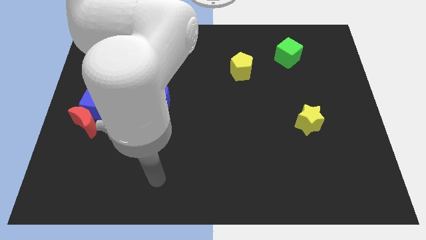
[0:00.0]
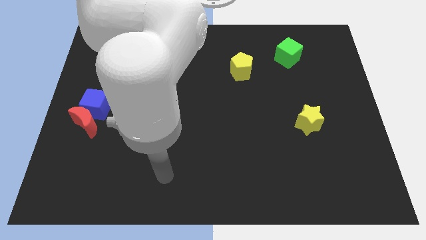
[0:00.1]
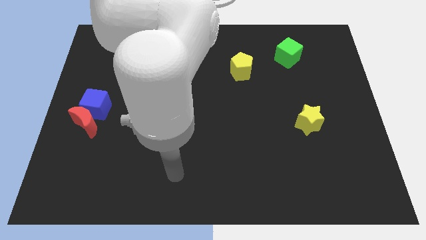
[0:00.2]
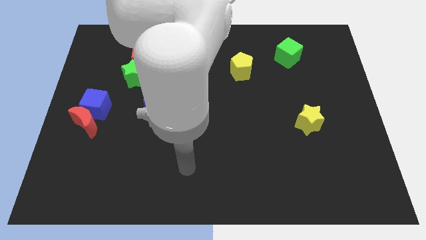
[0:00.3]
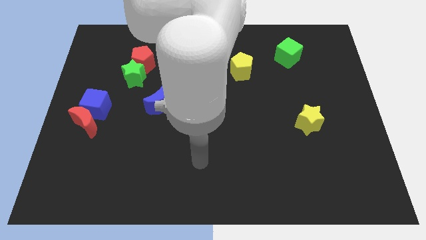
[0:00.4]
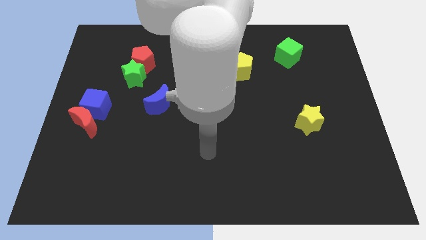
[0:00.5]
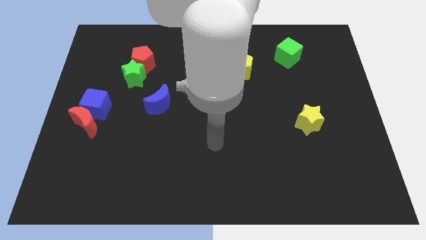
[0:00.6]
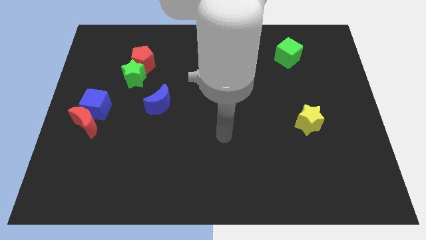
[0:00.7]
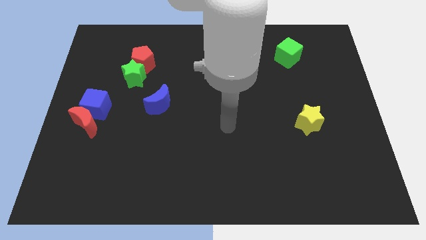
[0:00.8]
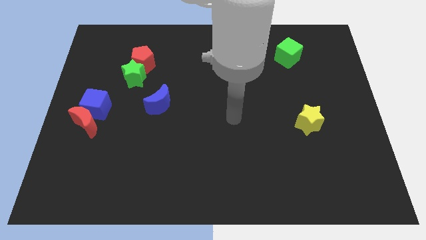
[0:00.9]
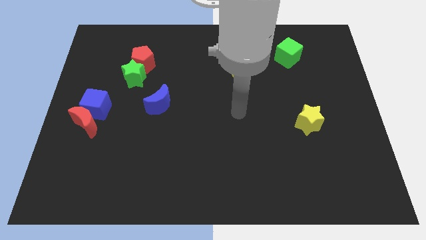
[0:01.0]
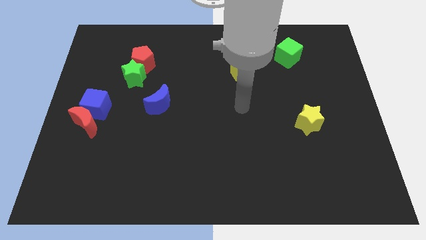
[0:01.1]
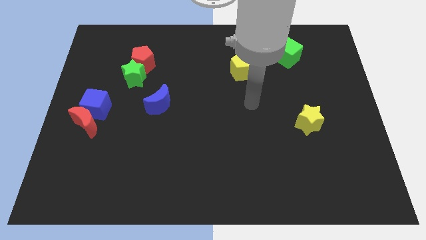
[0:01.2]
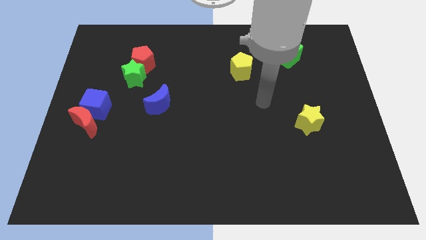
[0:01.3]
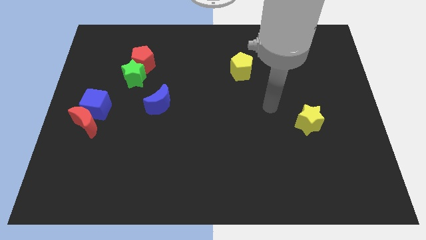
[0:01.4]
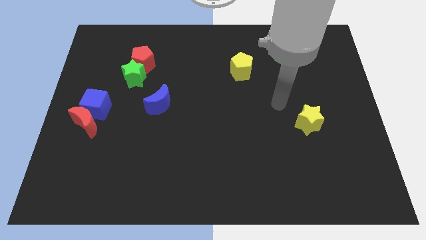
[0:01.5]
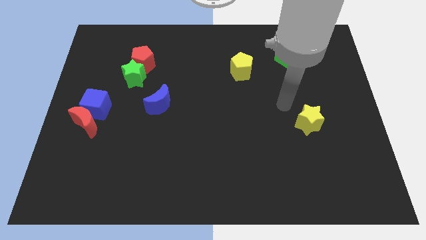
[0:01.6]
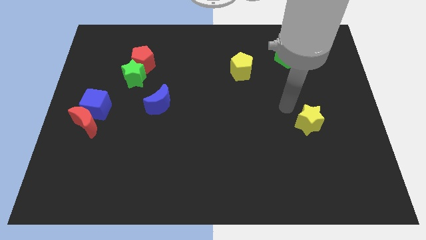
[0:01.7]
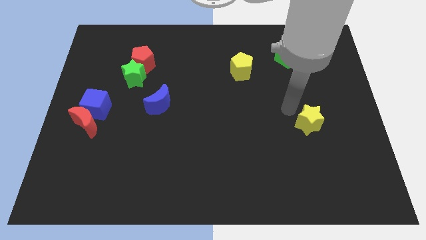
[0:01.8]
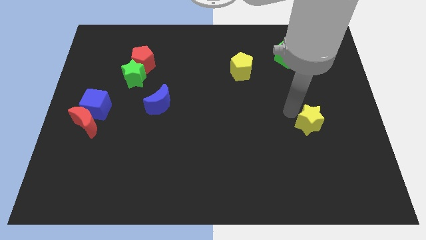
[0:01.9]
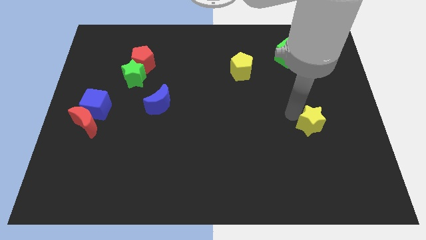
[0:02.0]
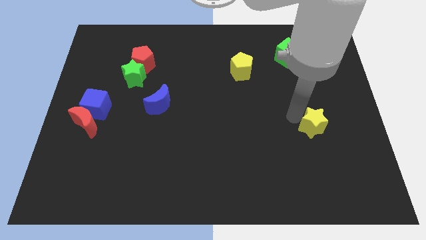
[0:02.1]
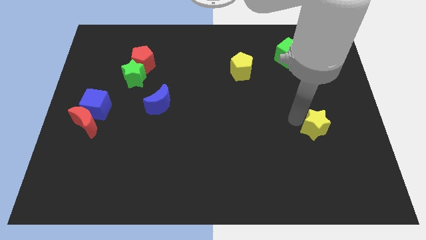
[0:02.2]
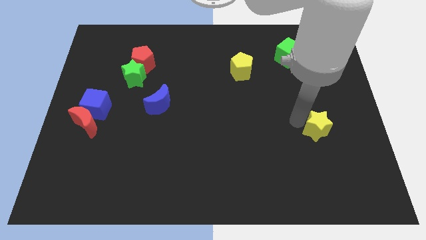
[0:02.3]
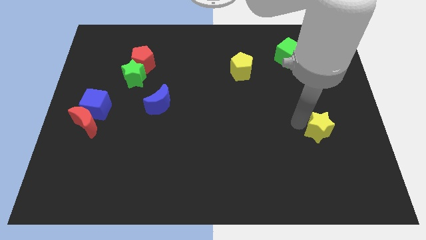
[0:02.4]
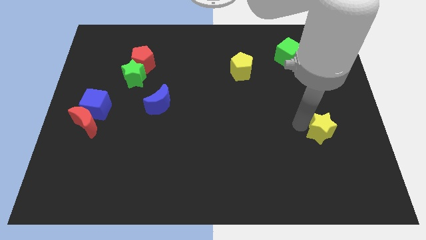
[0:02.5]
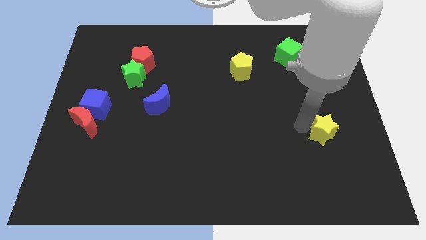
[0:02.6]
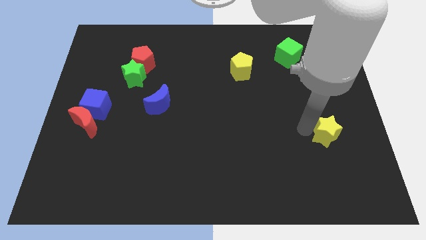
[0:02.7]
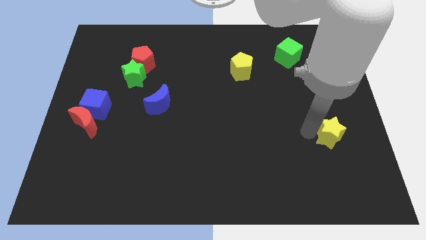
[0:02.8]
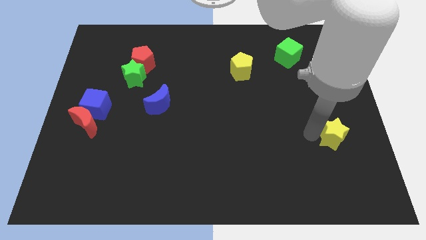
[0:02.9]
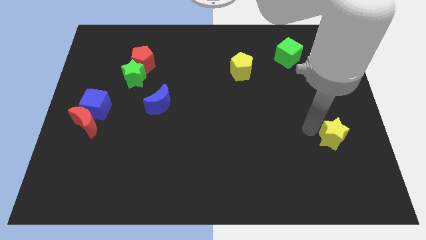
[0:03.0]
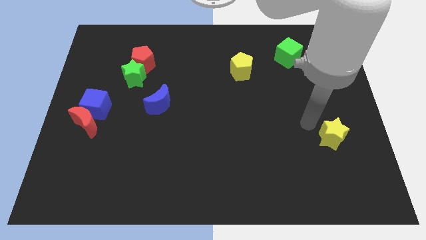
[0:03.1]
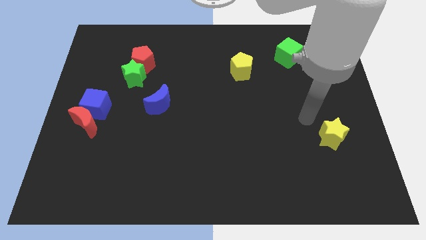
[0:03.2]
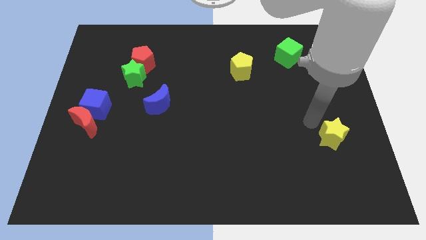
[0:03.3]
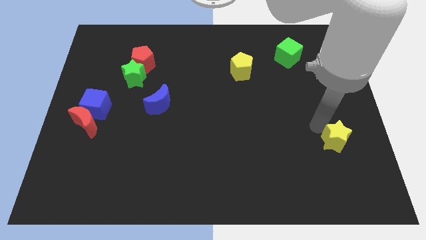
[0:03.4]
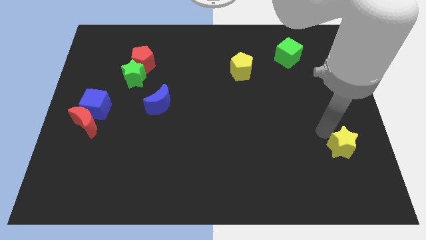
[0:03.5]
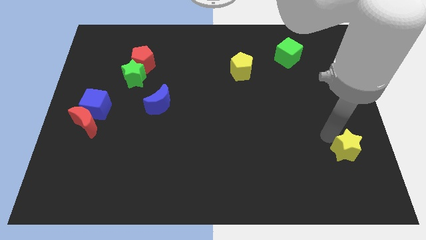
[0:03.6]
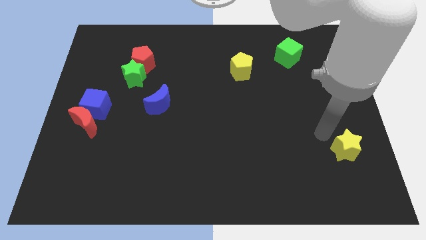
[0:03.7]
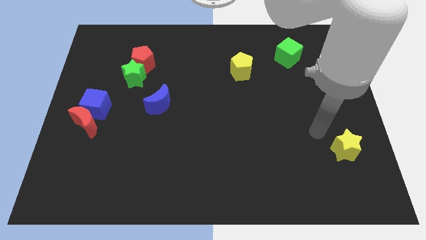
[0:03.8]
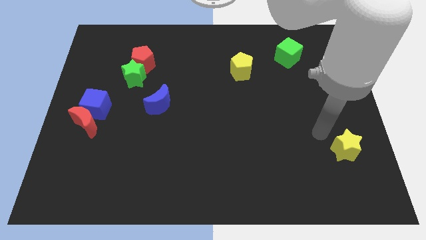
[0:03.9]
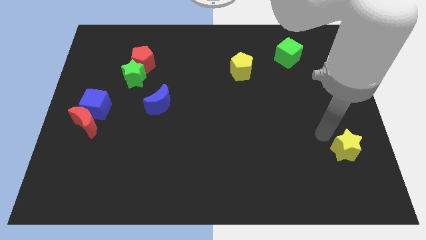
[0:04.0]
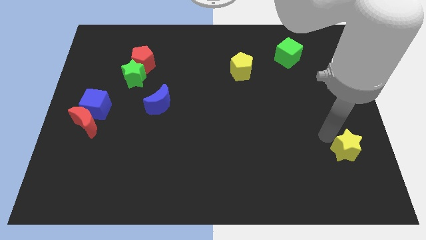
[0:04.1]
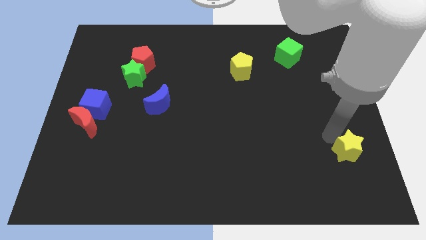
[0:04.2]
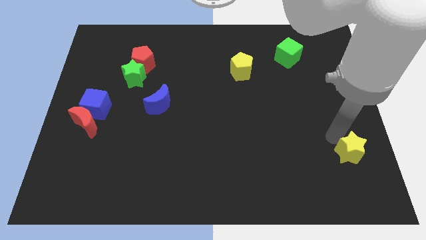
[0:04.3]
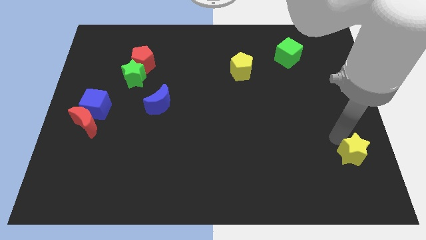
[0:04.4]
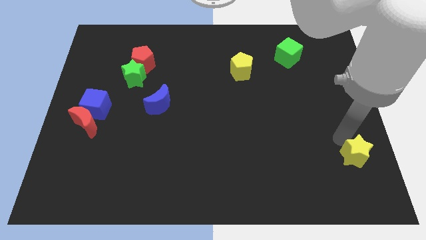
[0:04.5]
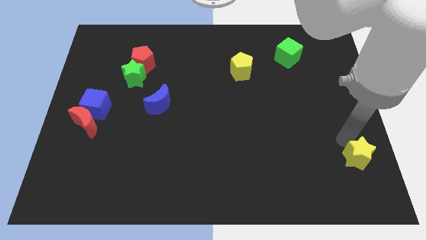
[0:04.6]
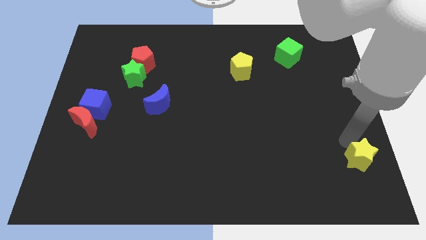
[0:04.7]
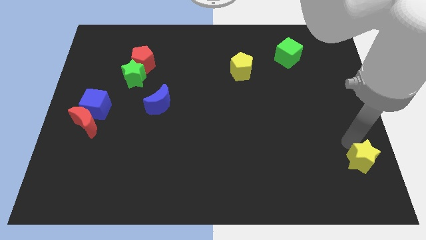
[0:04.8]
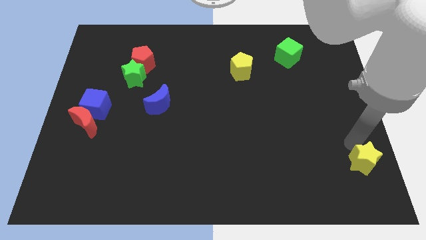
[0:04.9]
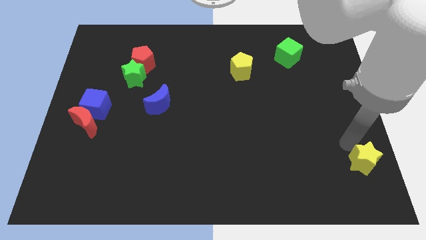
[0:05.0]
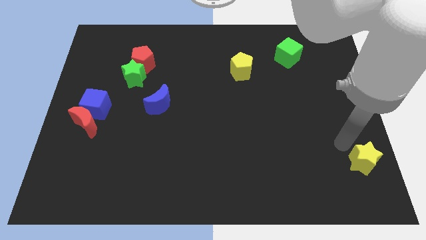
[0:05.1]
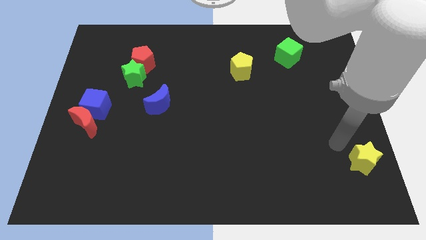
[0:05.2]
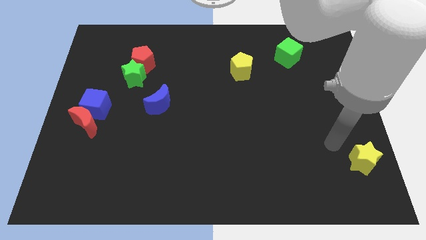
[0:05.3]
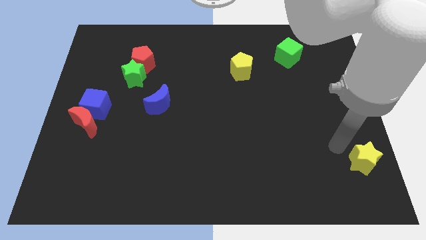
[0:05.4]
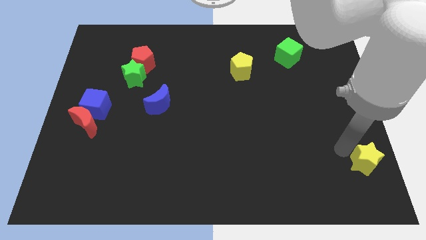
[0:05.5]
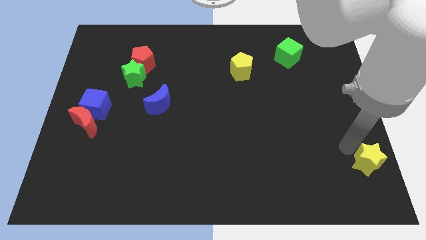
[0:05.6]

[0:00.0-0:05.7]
move the yellow star to the lower right corner
